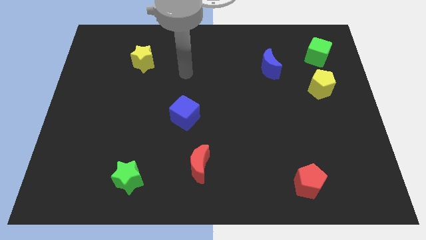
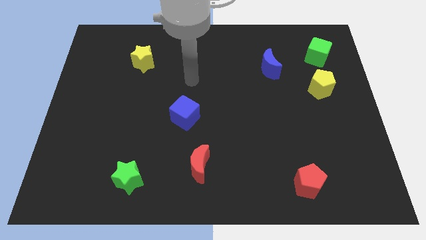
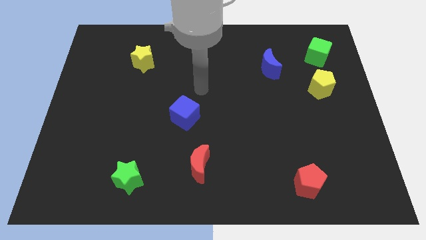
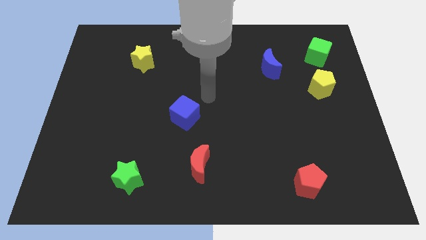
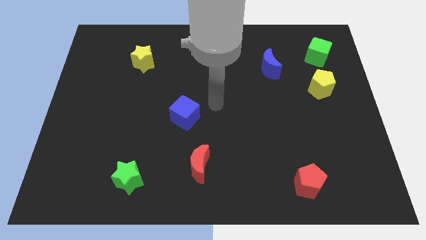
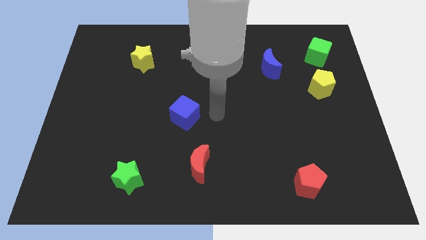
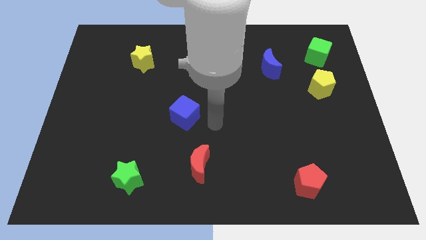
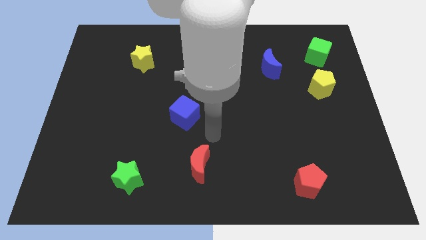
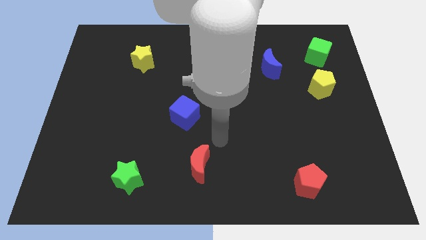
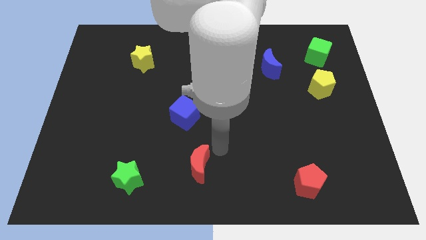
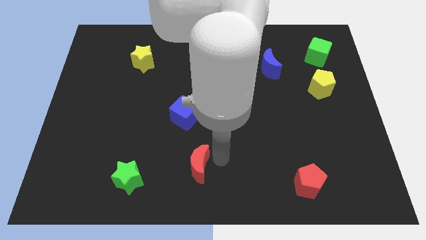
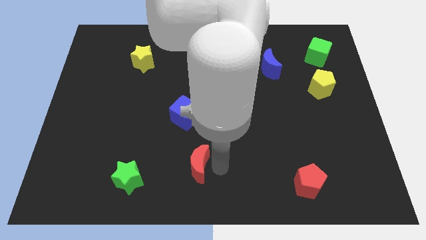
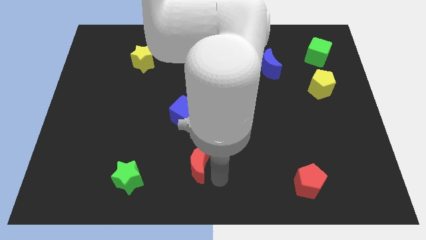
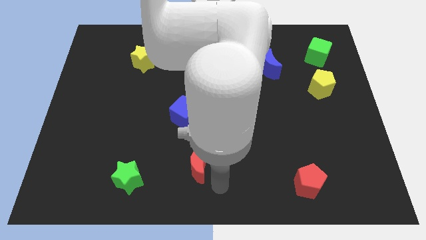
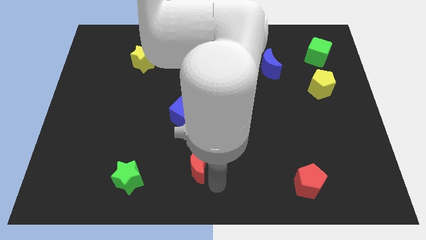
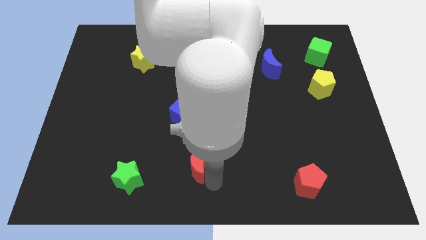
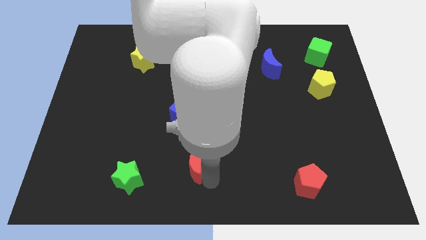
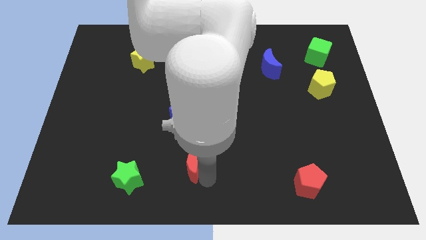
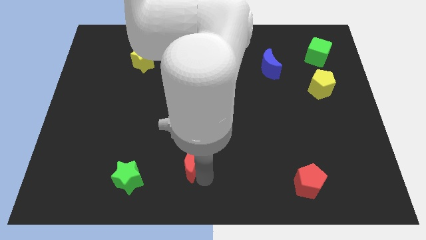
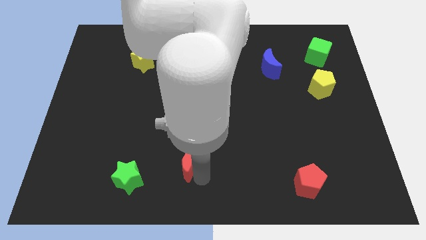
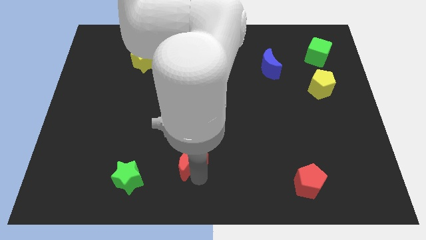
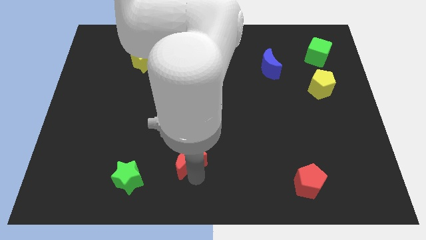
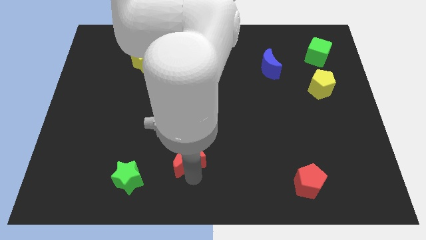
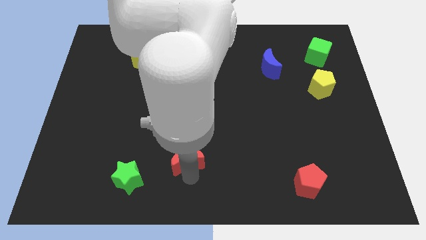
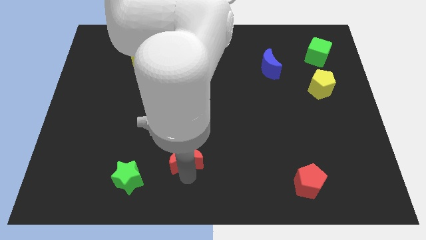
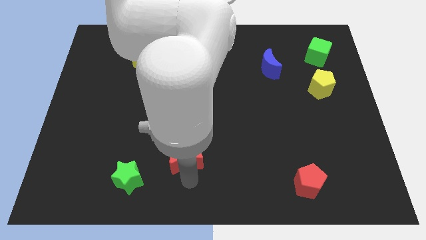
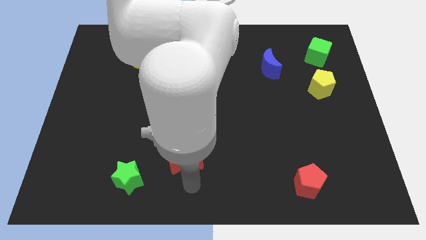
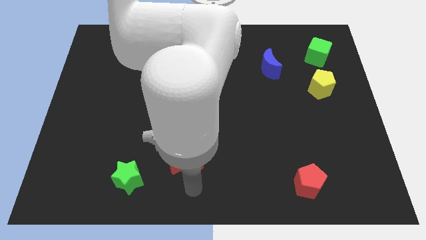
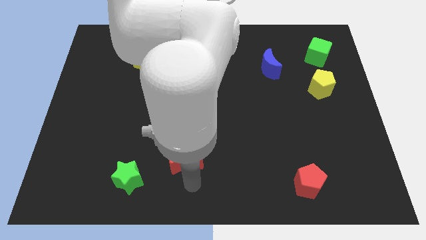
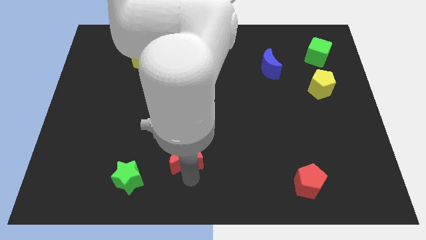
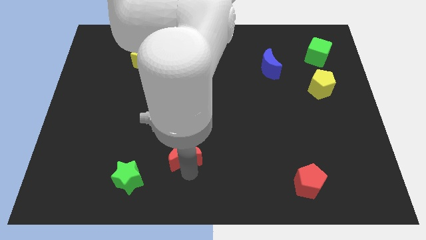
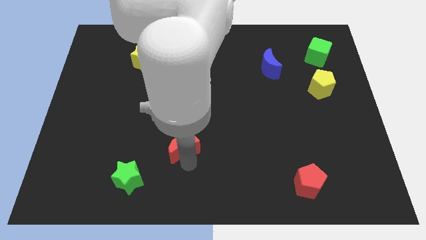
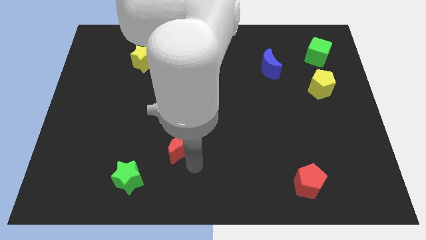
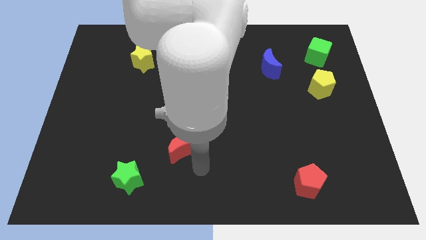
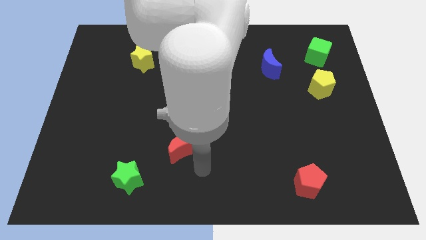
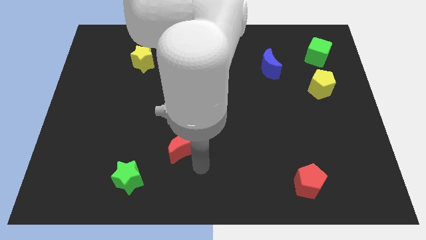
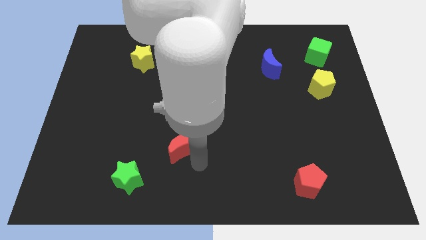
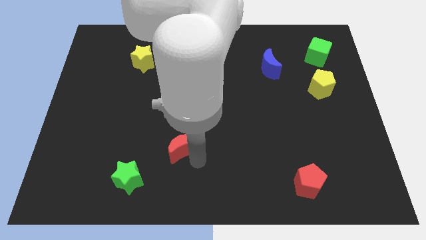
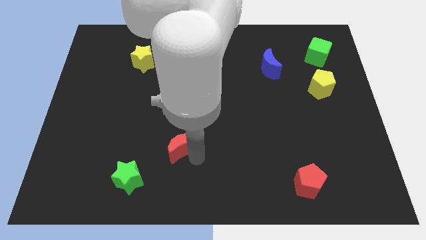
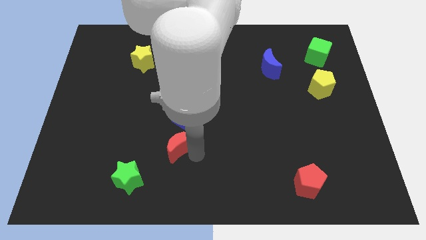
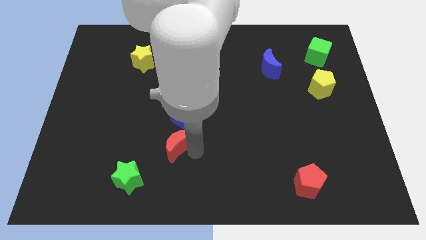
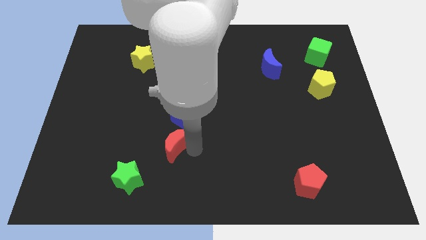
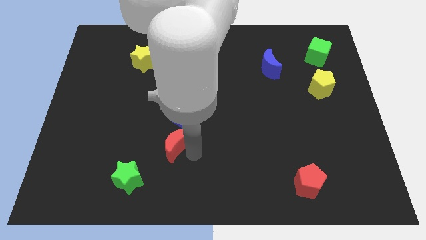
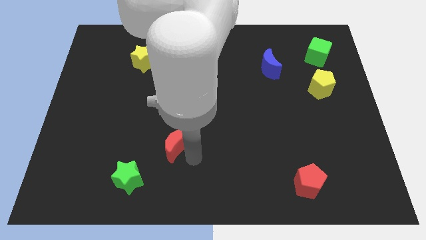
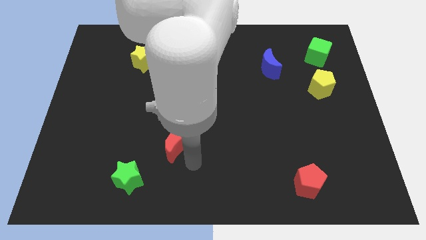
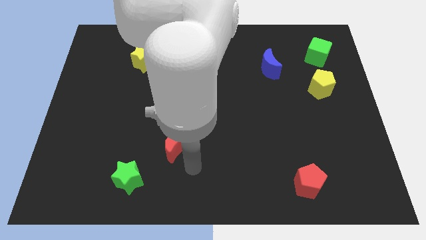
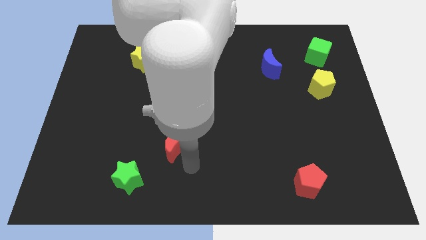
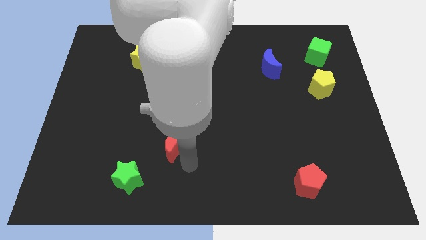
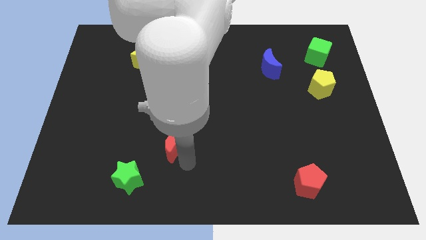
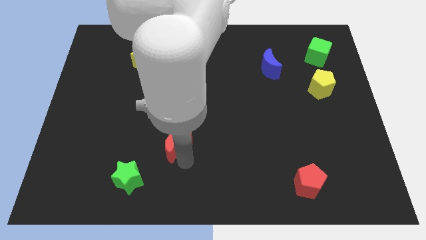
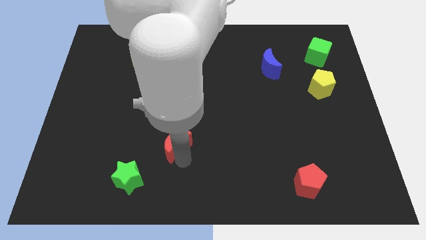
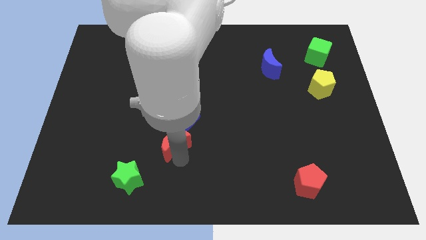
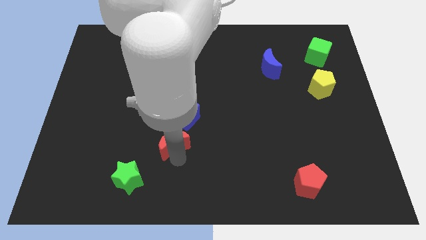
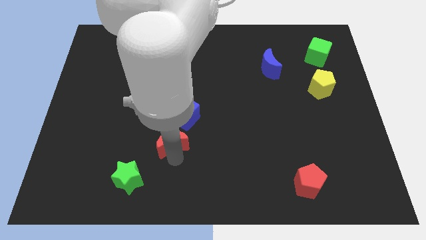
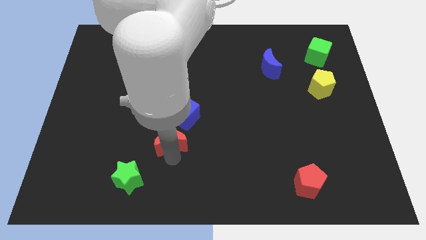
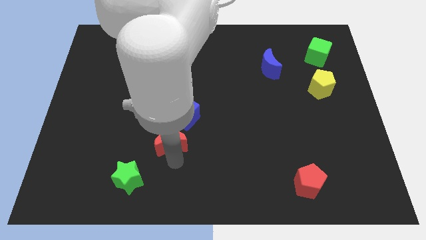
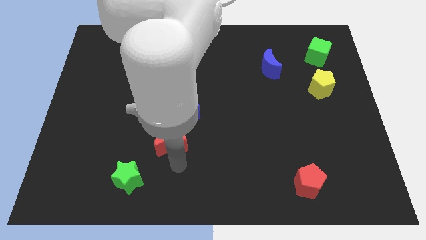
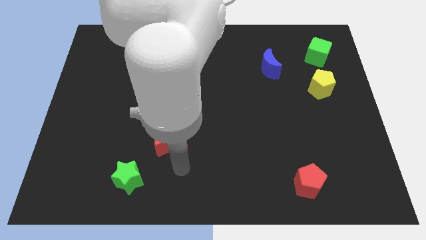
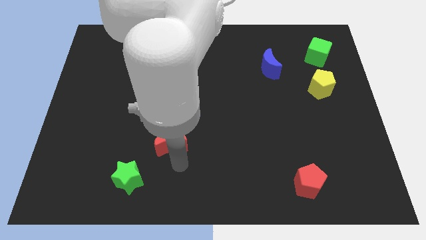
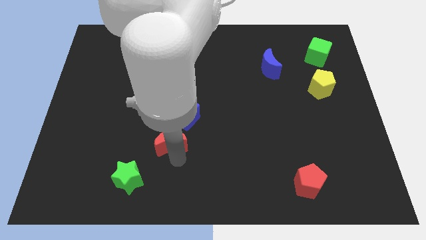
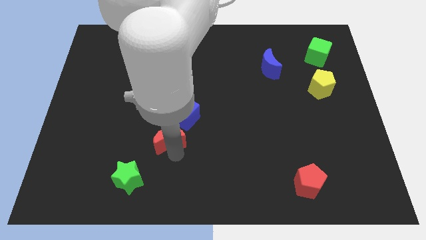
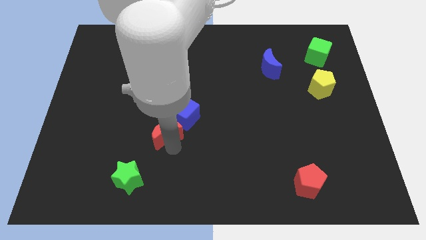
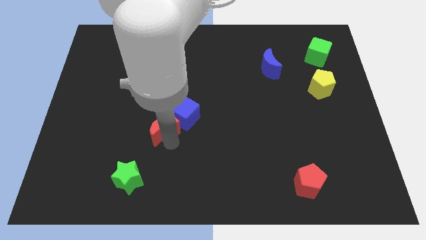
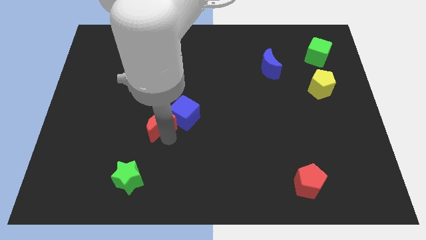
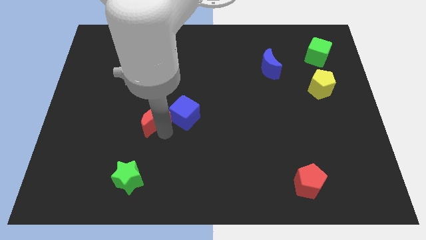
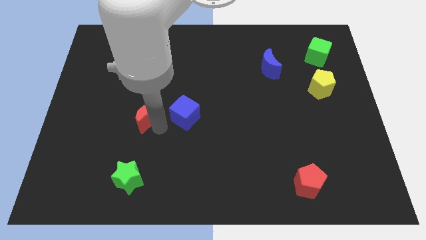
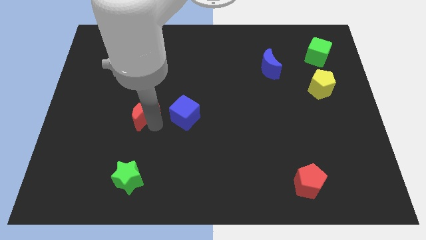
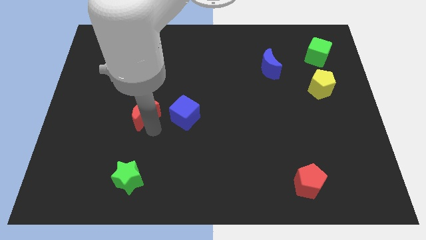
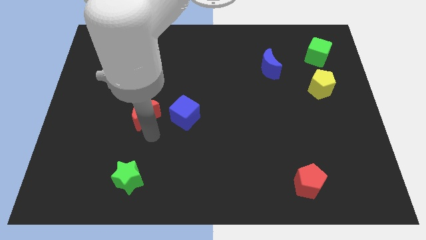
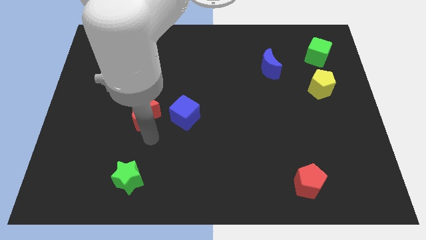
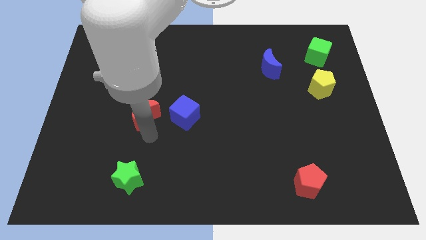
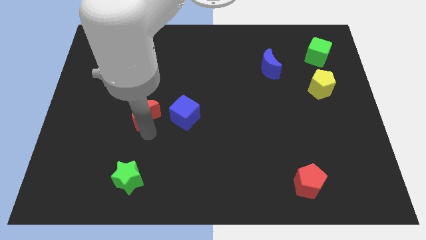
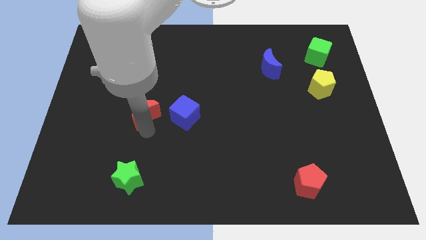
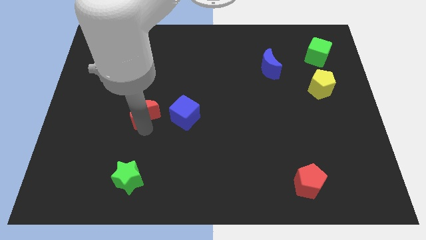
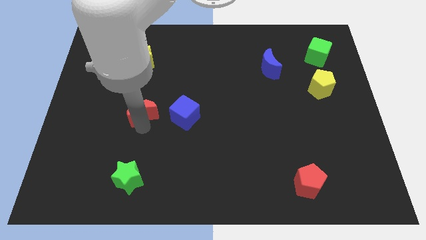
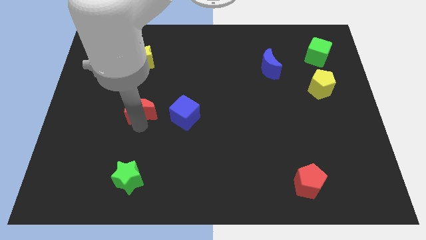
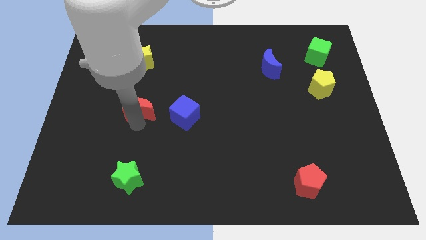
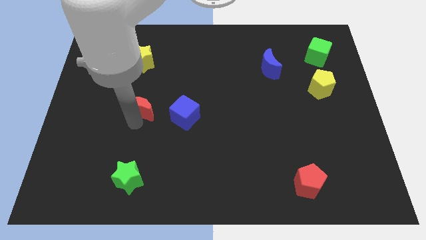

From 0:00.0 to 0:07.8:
put the red moon to the bottom of the yellow star
